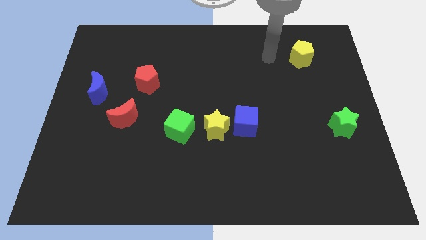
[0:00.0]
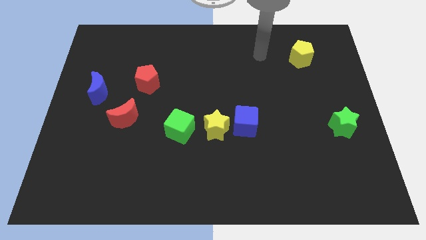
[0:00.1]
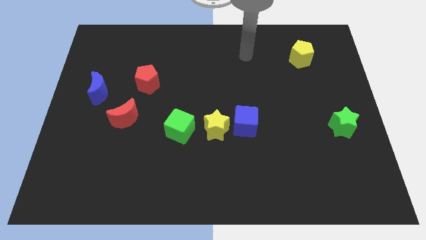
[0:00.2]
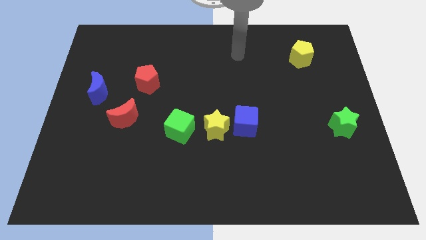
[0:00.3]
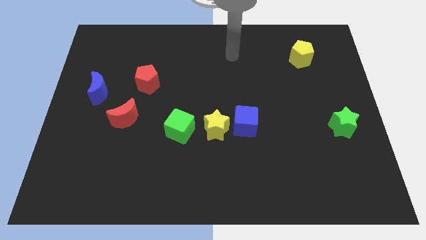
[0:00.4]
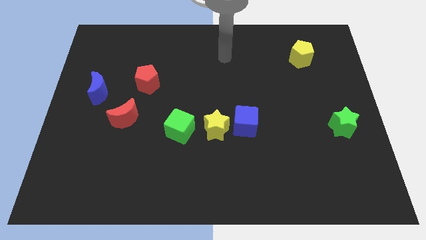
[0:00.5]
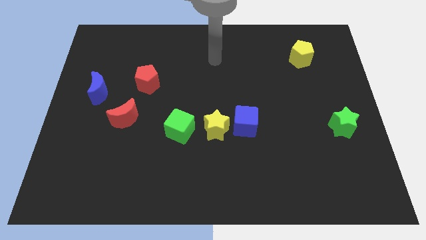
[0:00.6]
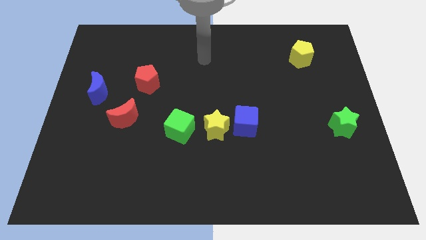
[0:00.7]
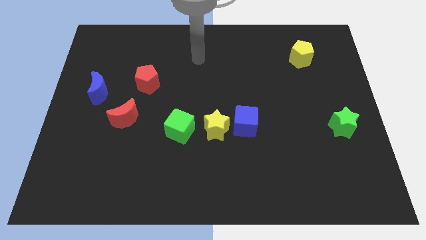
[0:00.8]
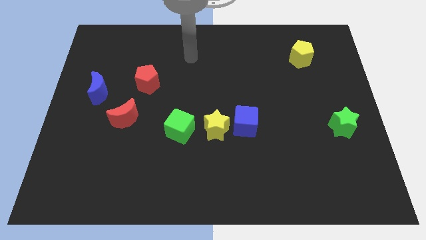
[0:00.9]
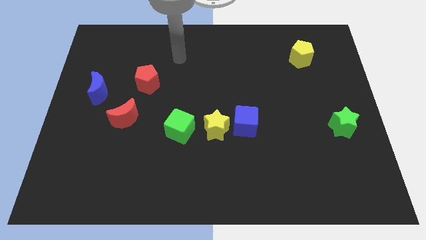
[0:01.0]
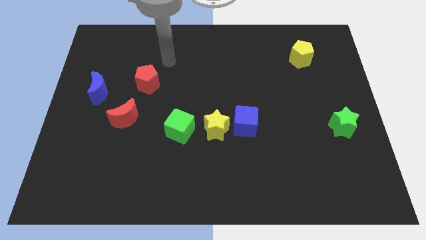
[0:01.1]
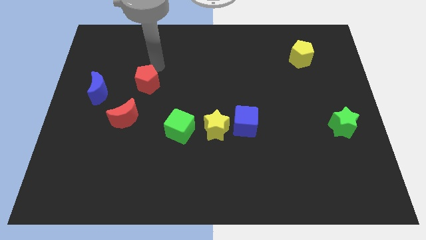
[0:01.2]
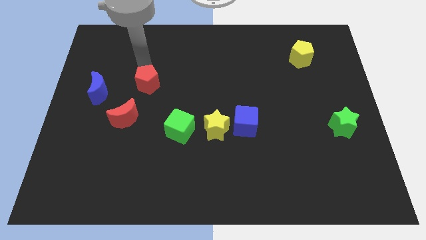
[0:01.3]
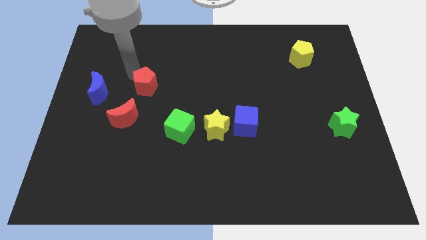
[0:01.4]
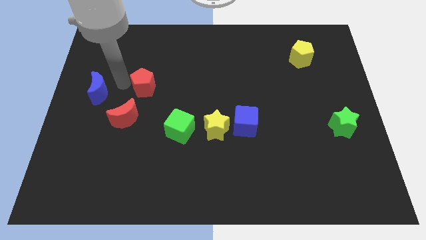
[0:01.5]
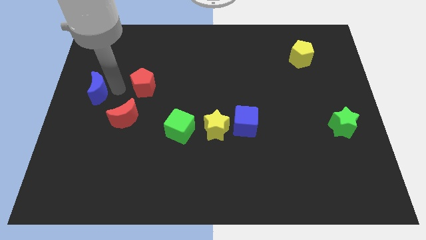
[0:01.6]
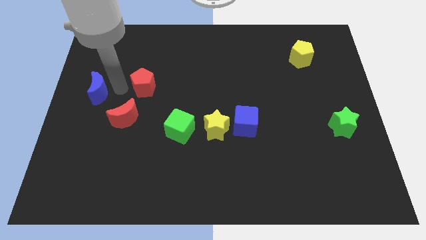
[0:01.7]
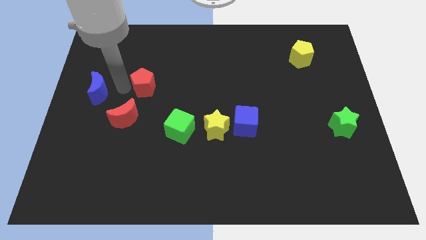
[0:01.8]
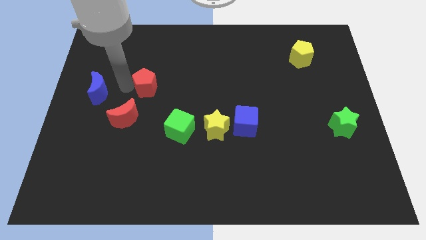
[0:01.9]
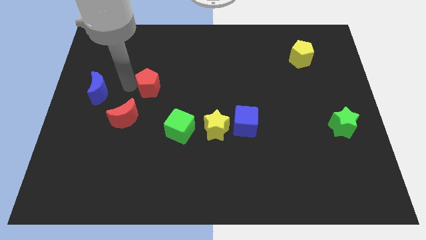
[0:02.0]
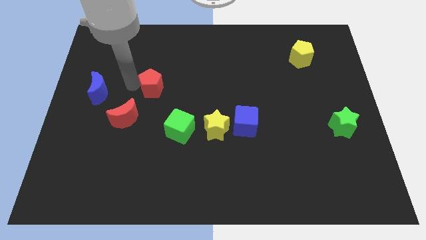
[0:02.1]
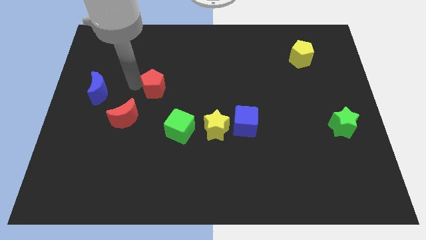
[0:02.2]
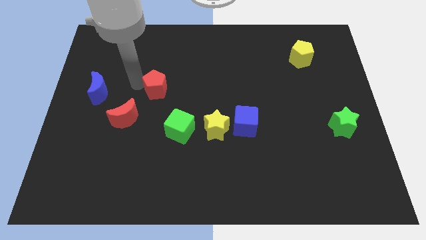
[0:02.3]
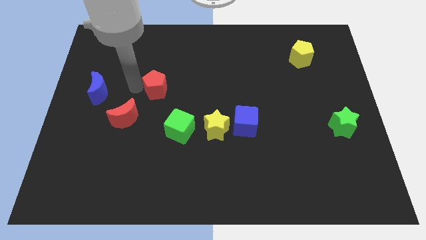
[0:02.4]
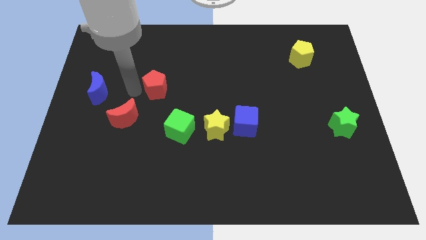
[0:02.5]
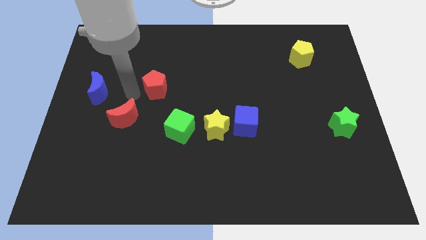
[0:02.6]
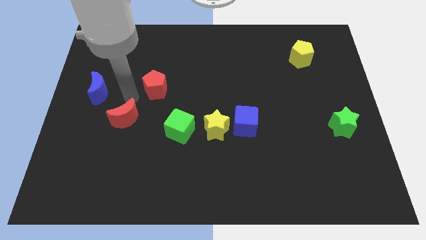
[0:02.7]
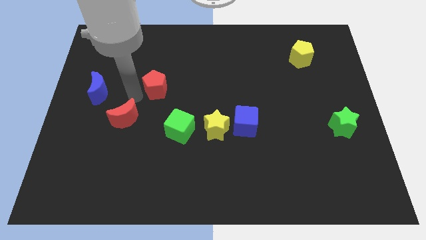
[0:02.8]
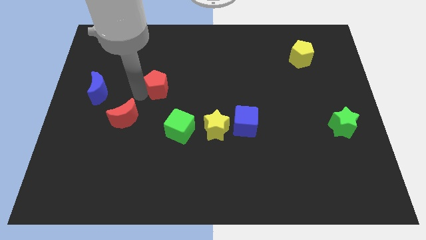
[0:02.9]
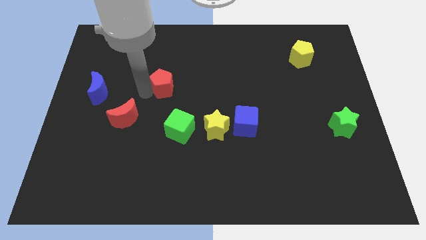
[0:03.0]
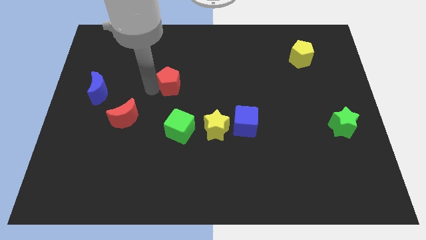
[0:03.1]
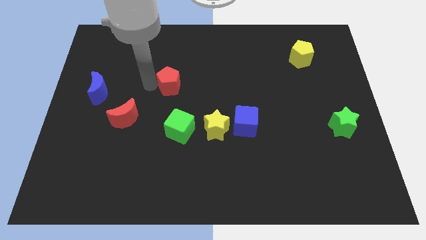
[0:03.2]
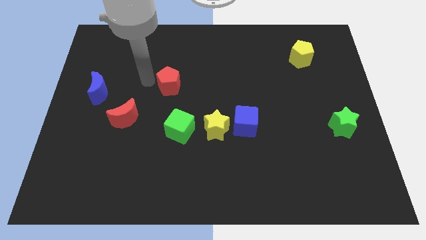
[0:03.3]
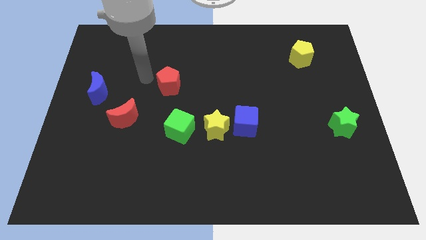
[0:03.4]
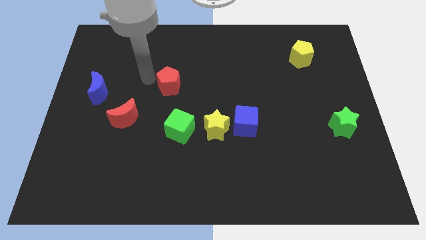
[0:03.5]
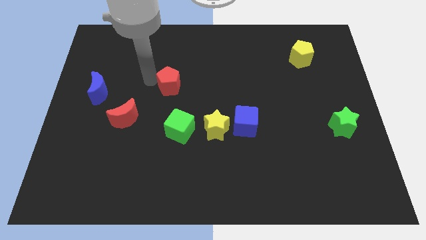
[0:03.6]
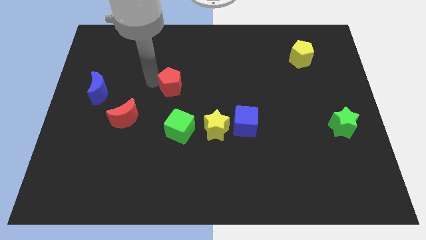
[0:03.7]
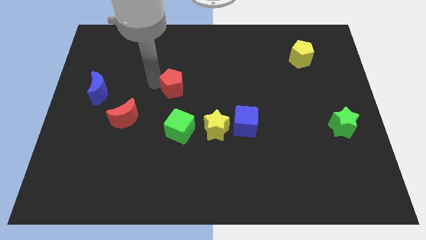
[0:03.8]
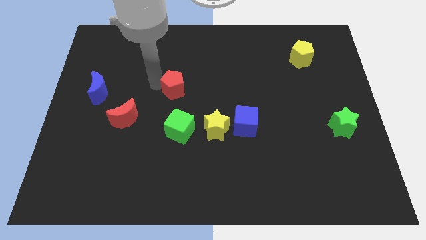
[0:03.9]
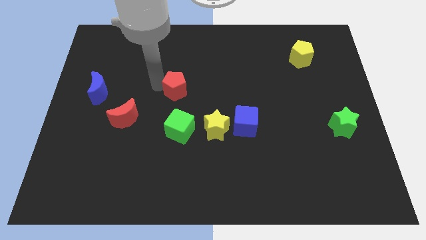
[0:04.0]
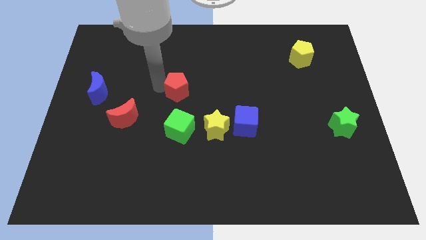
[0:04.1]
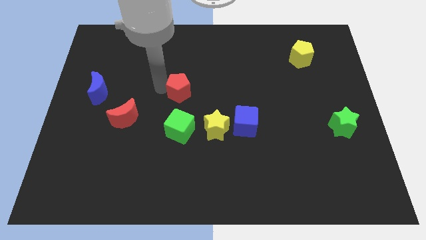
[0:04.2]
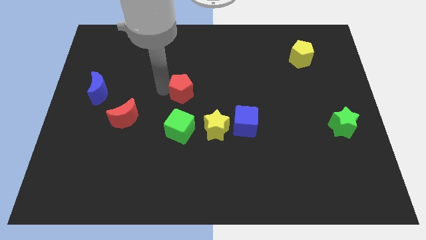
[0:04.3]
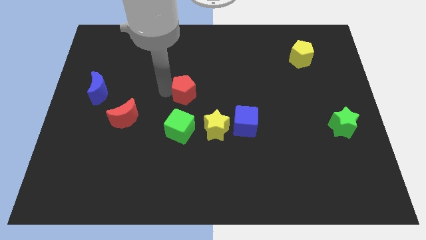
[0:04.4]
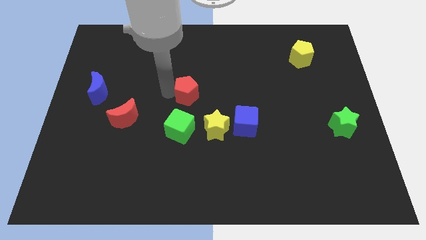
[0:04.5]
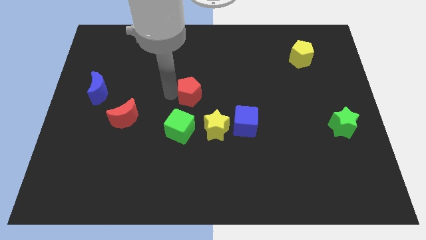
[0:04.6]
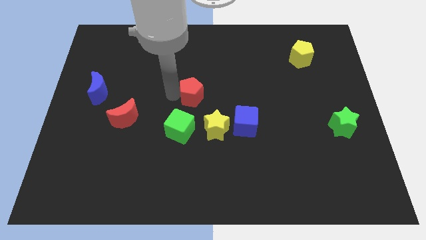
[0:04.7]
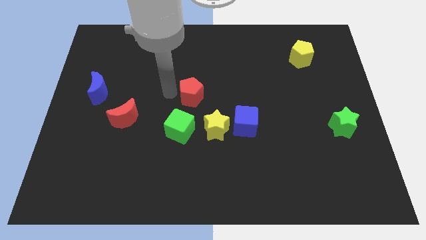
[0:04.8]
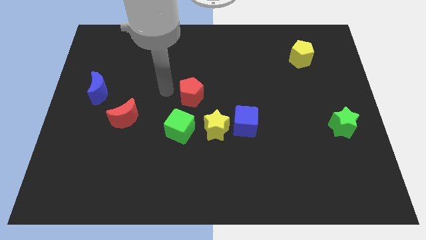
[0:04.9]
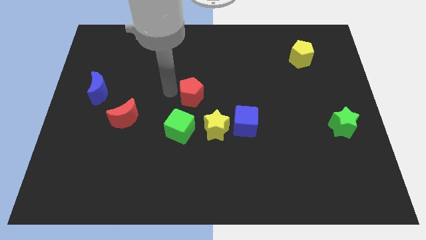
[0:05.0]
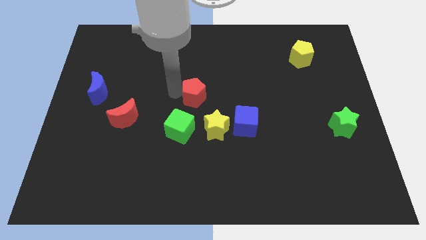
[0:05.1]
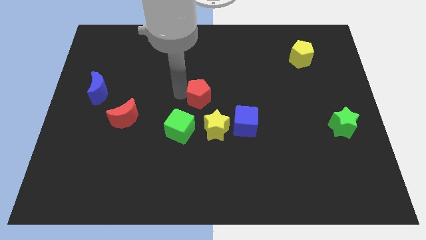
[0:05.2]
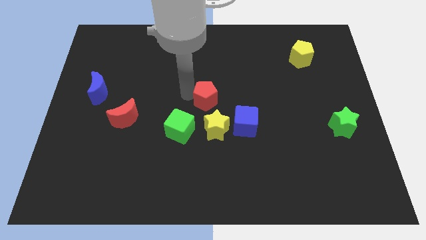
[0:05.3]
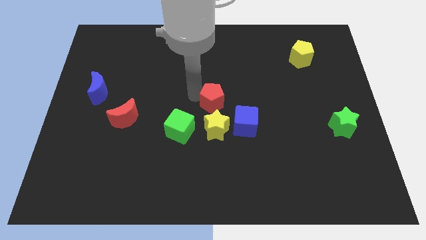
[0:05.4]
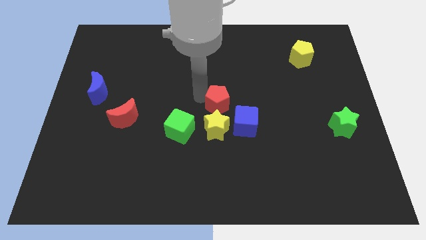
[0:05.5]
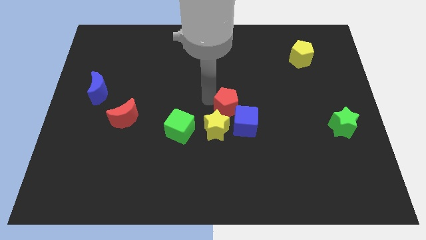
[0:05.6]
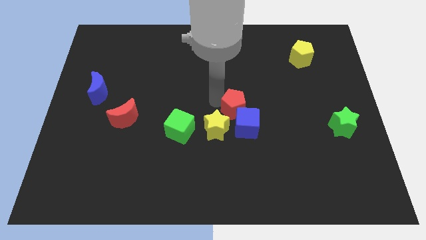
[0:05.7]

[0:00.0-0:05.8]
slide the red pentagon to the blue cube

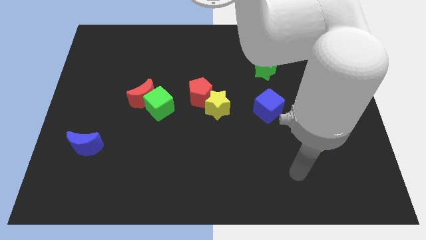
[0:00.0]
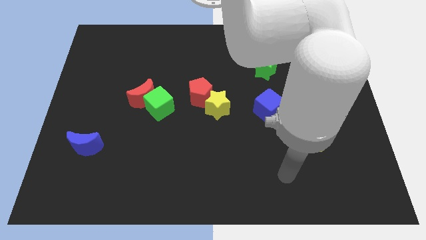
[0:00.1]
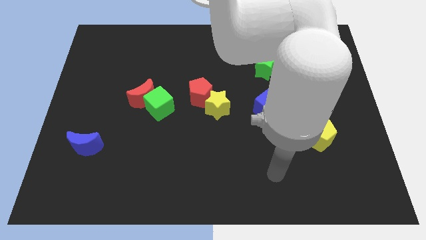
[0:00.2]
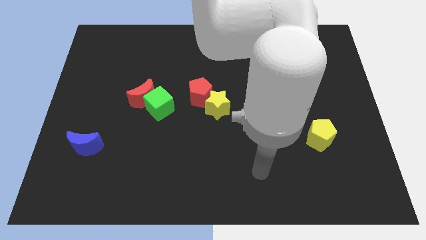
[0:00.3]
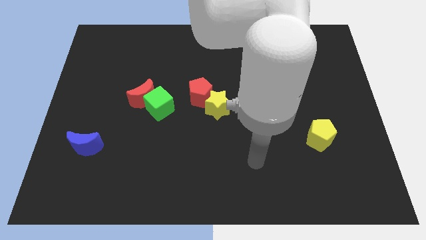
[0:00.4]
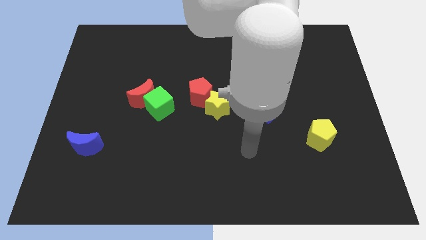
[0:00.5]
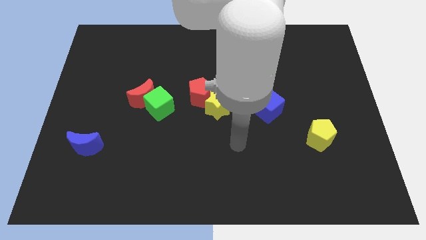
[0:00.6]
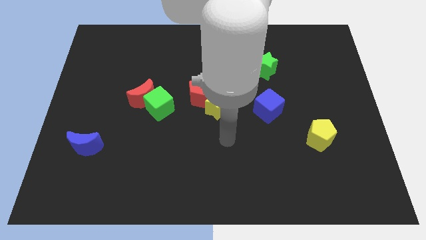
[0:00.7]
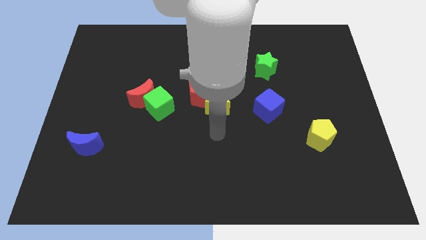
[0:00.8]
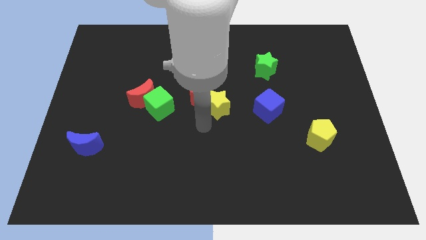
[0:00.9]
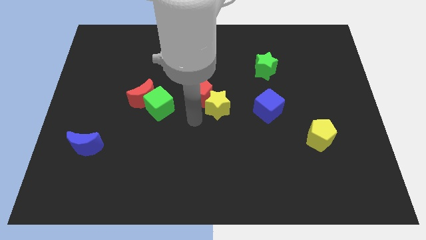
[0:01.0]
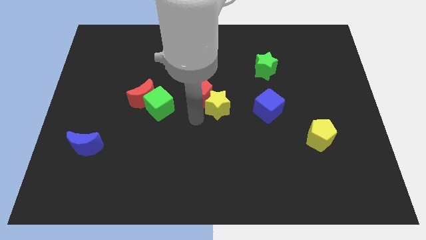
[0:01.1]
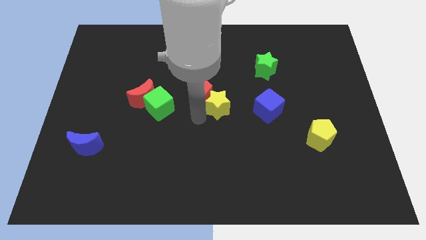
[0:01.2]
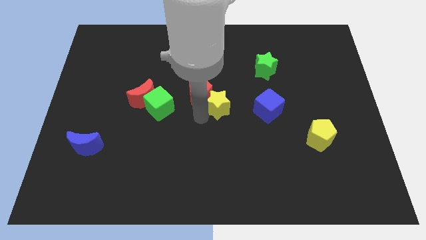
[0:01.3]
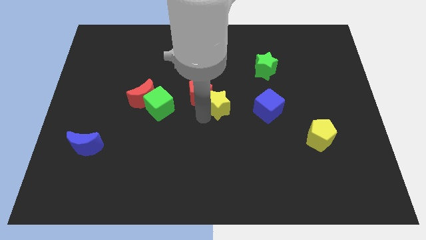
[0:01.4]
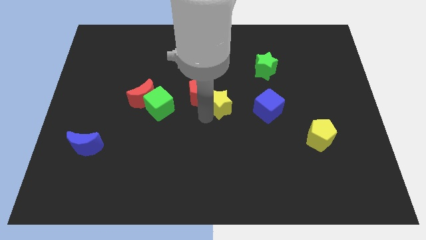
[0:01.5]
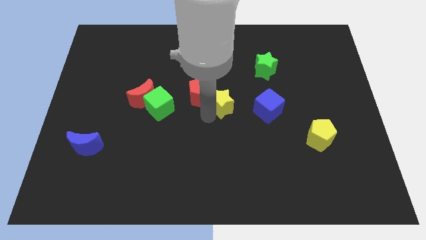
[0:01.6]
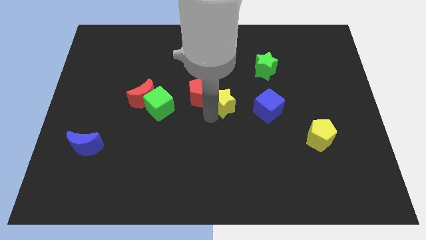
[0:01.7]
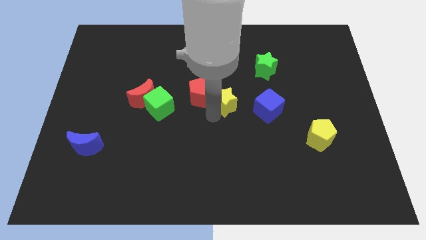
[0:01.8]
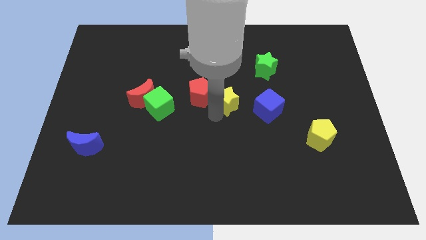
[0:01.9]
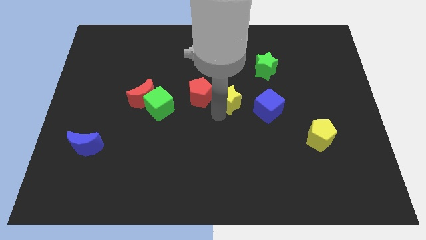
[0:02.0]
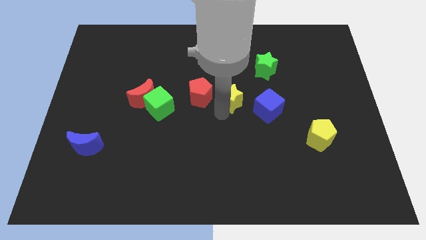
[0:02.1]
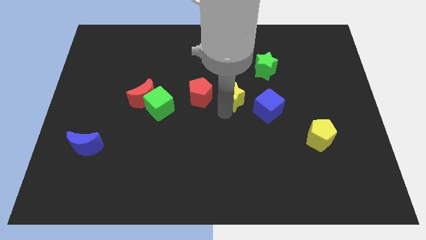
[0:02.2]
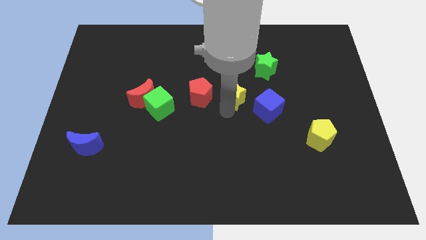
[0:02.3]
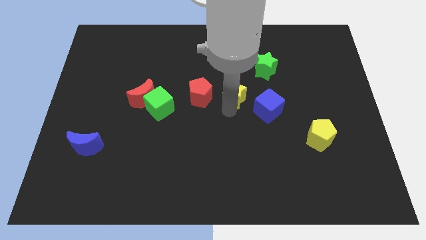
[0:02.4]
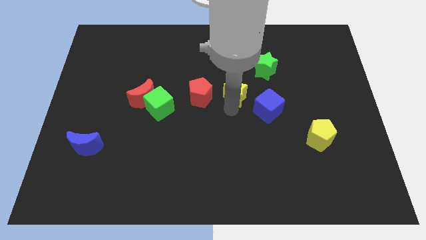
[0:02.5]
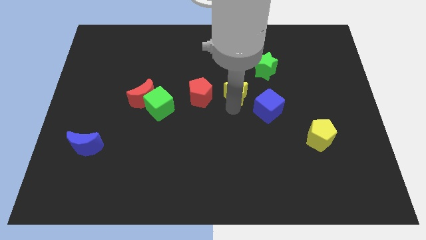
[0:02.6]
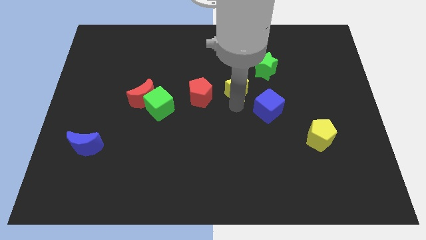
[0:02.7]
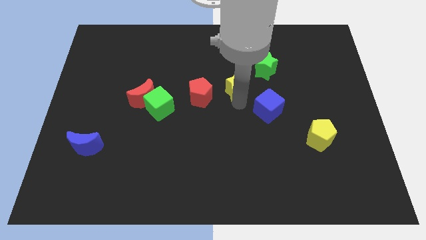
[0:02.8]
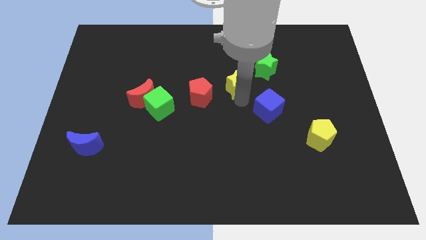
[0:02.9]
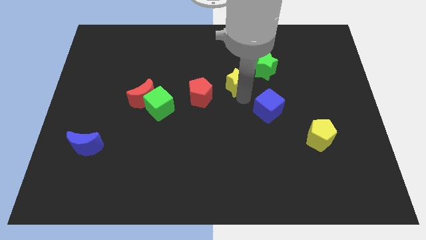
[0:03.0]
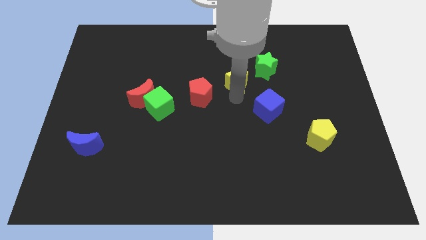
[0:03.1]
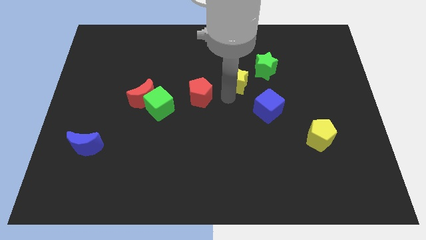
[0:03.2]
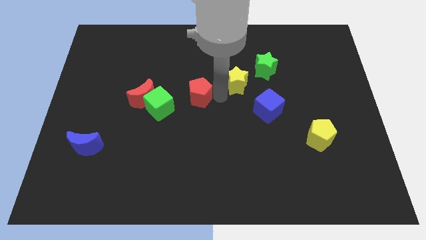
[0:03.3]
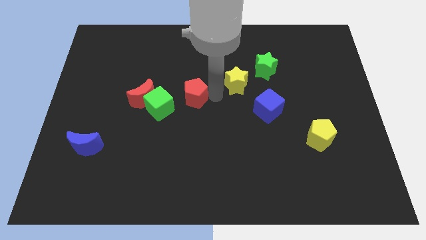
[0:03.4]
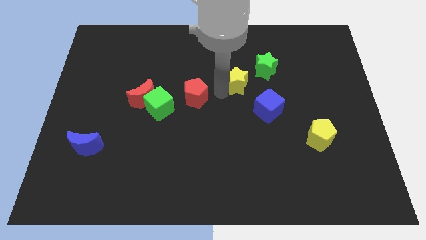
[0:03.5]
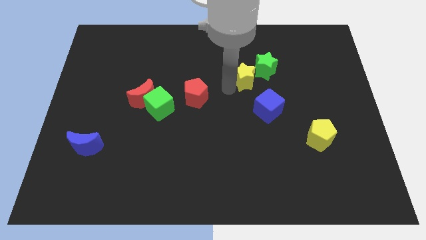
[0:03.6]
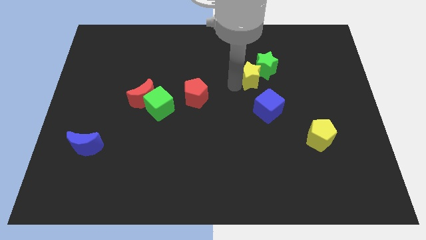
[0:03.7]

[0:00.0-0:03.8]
slide the yellow star next to the green star
